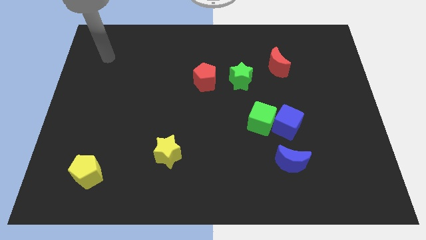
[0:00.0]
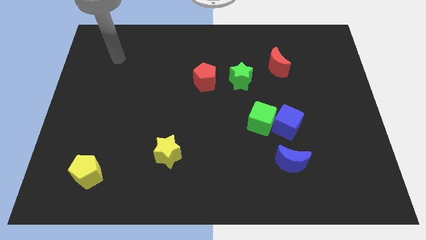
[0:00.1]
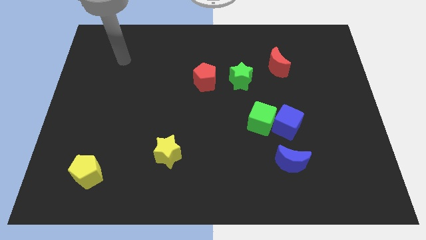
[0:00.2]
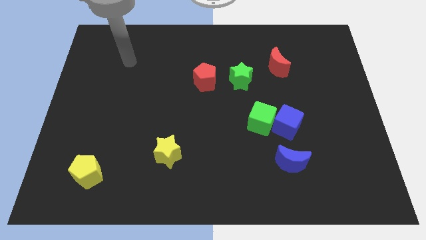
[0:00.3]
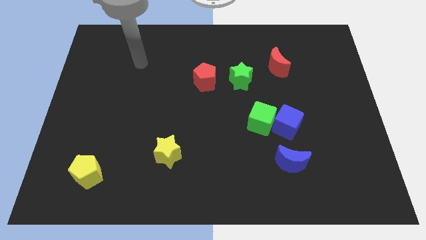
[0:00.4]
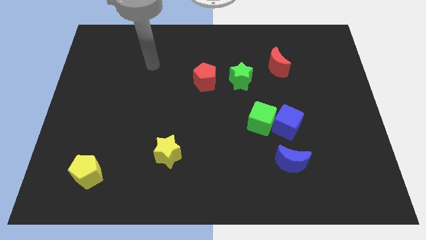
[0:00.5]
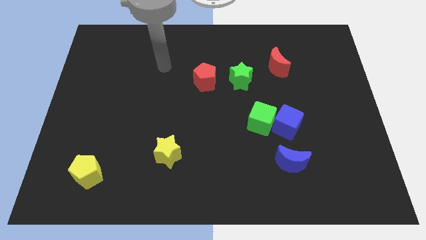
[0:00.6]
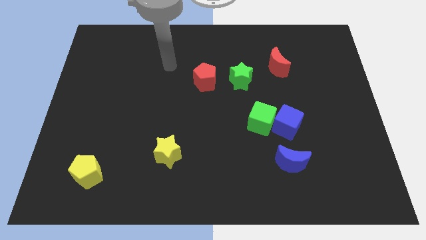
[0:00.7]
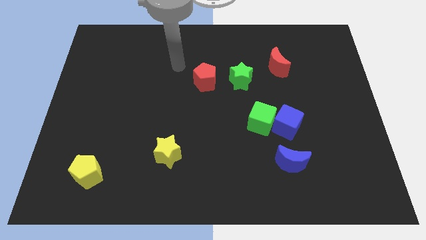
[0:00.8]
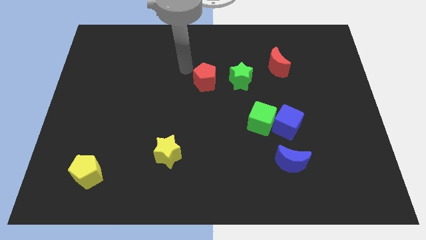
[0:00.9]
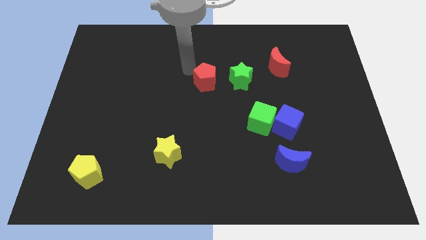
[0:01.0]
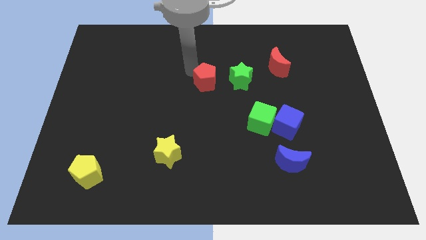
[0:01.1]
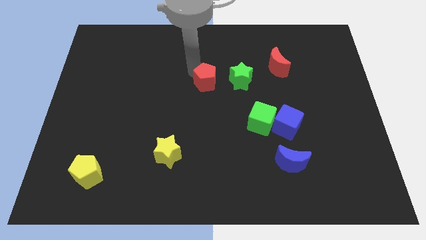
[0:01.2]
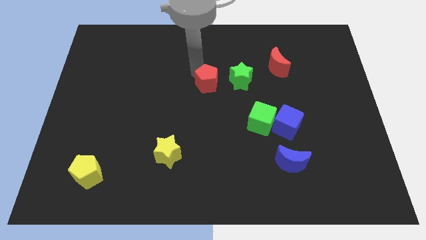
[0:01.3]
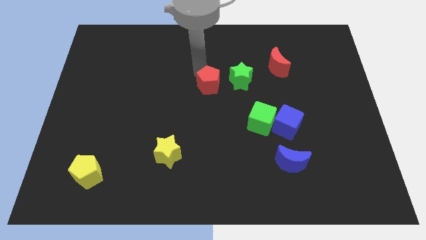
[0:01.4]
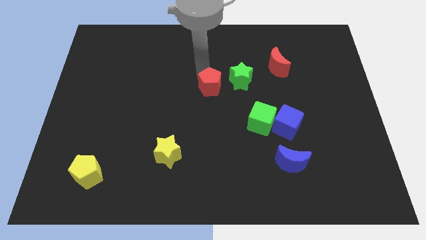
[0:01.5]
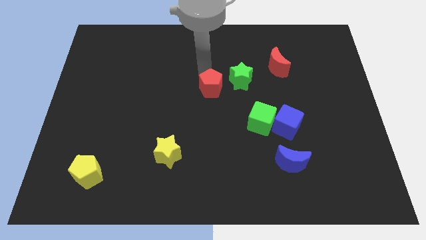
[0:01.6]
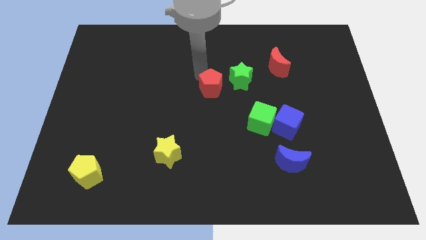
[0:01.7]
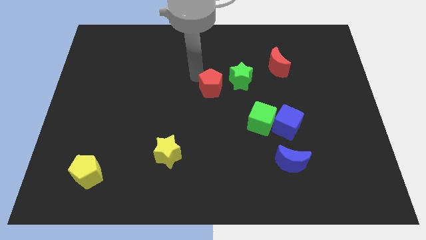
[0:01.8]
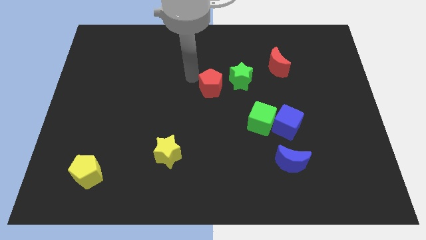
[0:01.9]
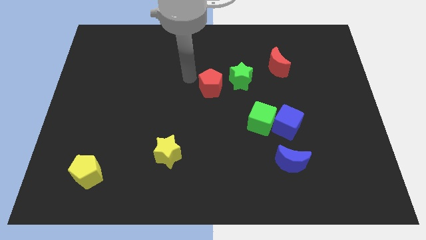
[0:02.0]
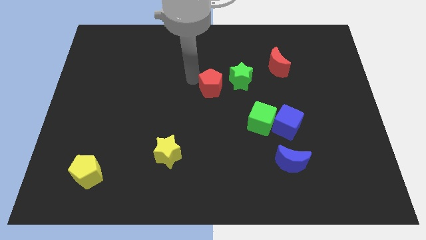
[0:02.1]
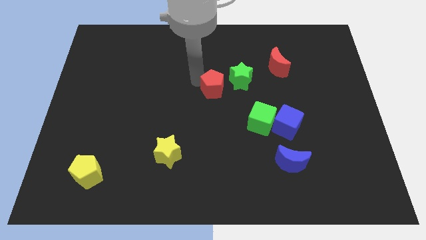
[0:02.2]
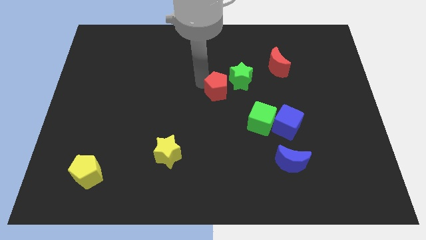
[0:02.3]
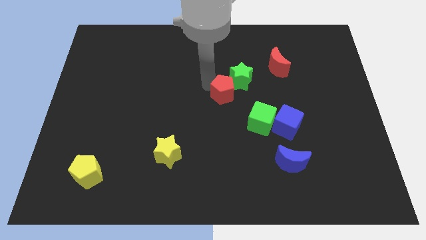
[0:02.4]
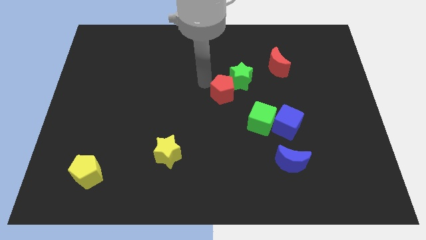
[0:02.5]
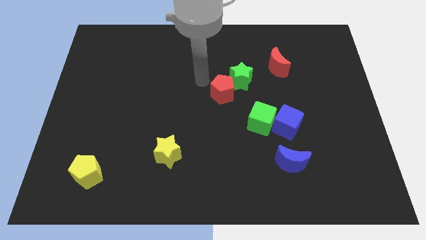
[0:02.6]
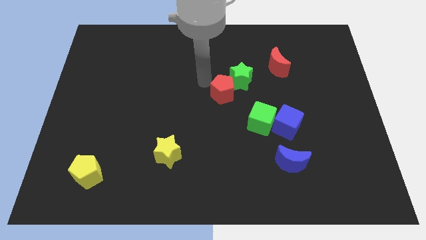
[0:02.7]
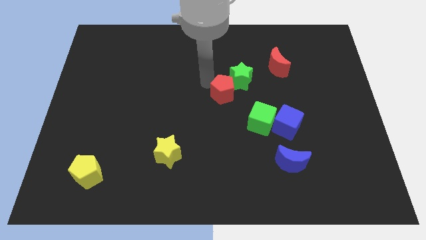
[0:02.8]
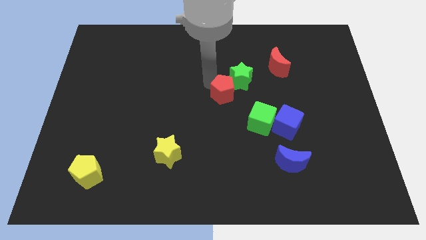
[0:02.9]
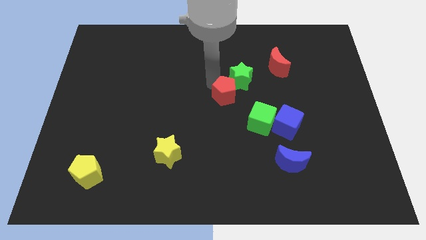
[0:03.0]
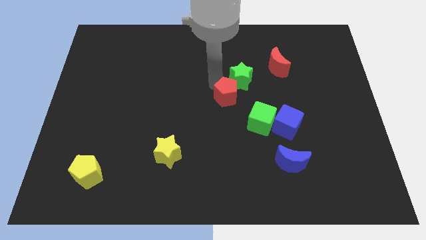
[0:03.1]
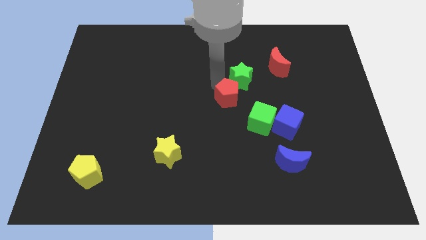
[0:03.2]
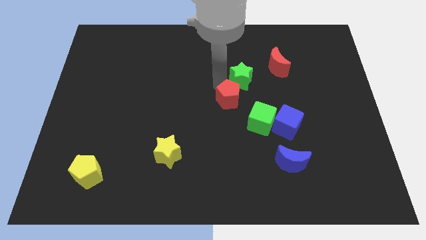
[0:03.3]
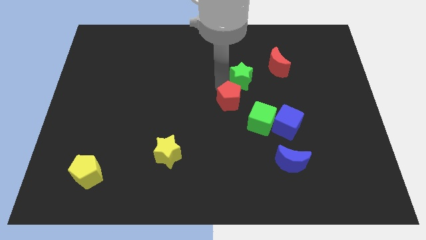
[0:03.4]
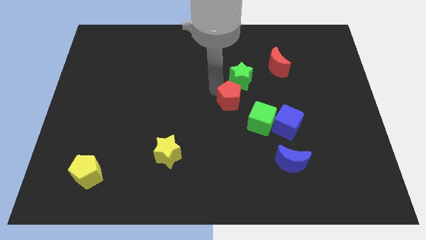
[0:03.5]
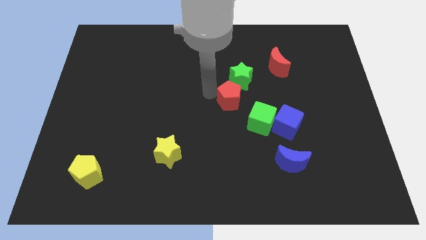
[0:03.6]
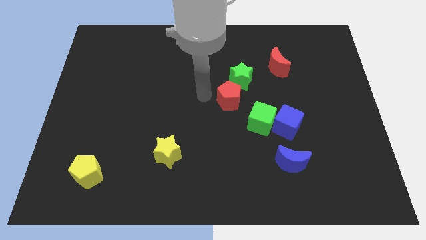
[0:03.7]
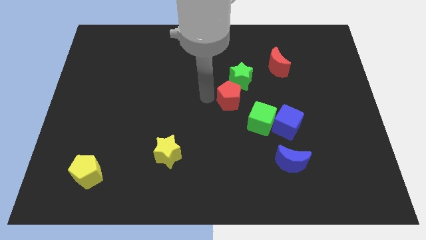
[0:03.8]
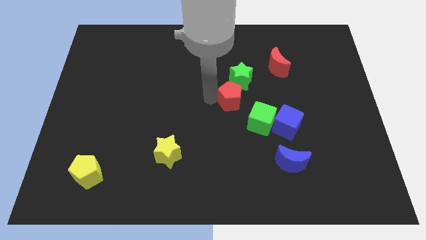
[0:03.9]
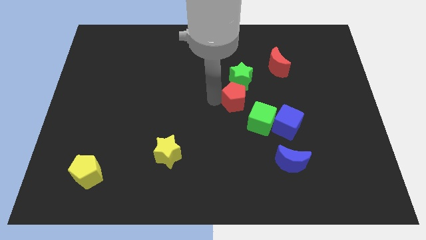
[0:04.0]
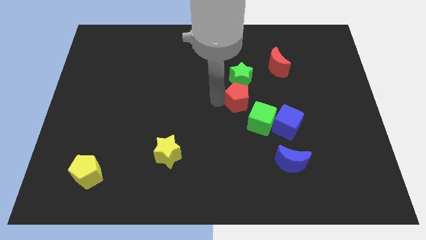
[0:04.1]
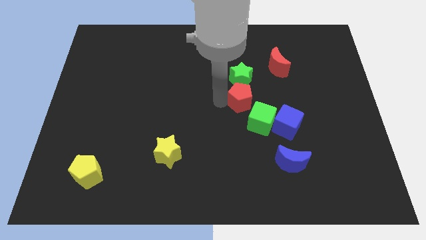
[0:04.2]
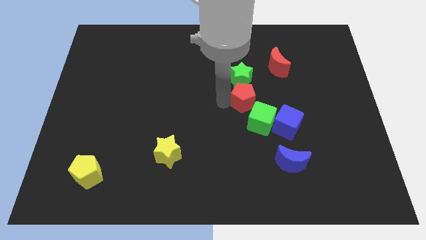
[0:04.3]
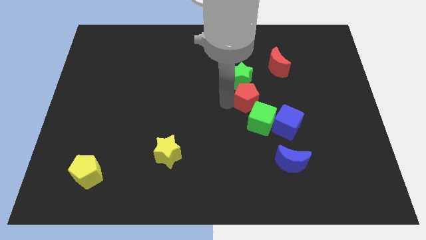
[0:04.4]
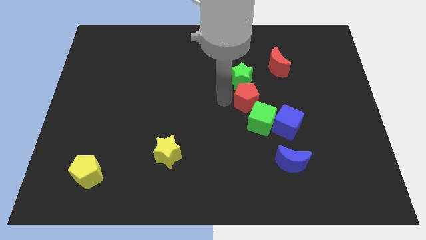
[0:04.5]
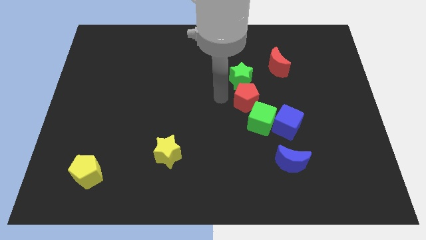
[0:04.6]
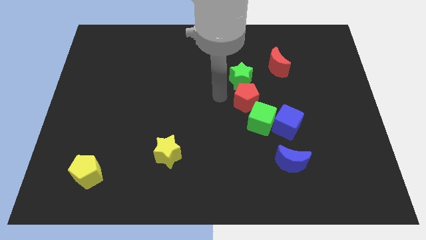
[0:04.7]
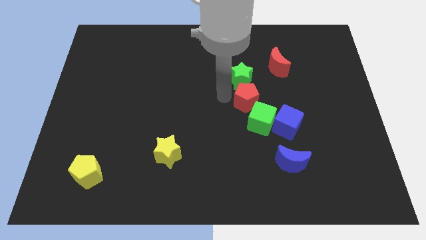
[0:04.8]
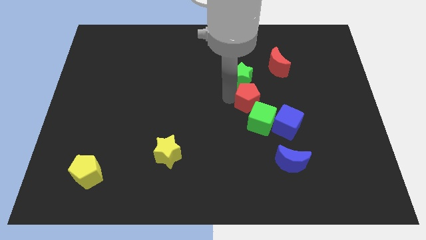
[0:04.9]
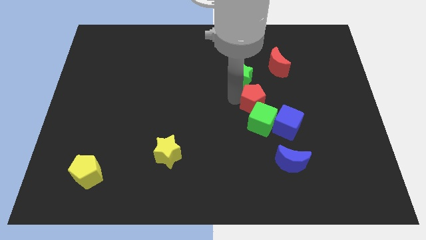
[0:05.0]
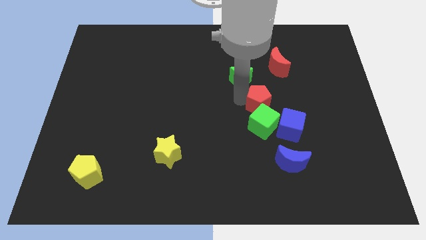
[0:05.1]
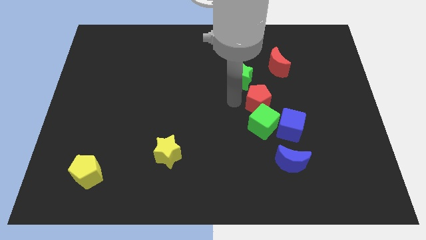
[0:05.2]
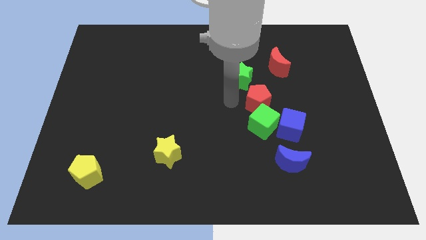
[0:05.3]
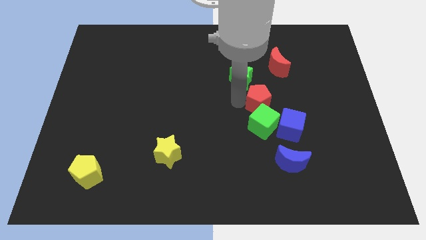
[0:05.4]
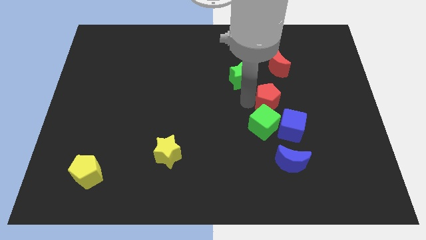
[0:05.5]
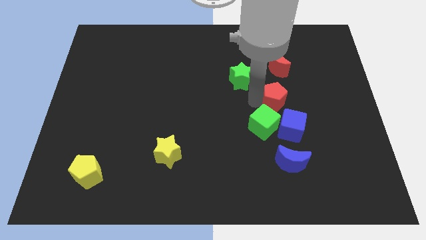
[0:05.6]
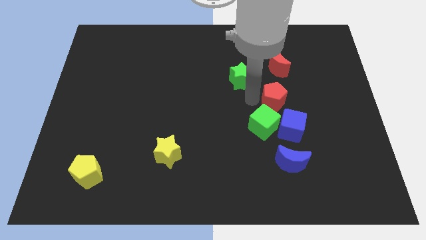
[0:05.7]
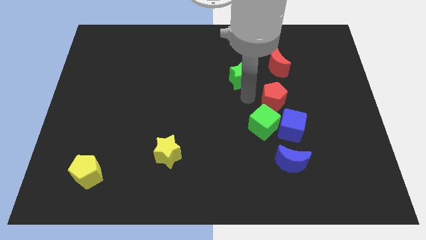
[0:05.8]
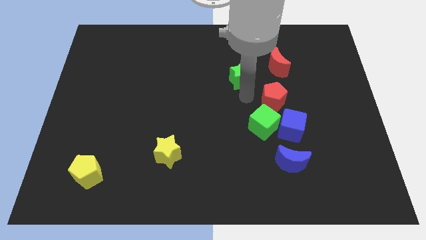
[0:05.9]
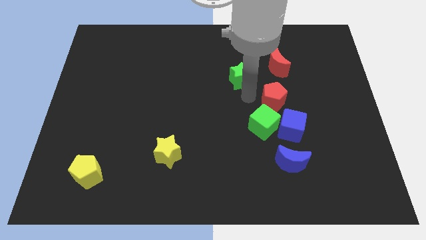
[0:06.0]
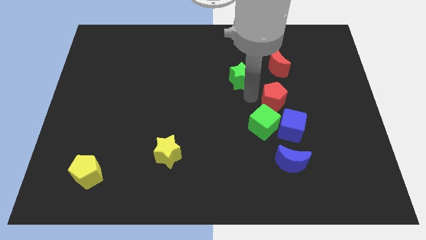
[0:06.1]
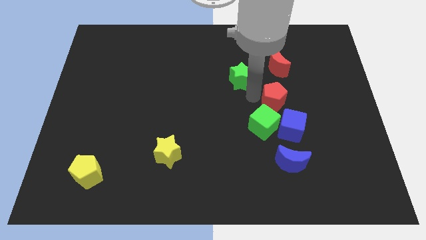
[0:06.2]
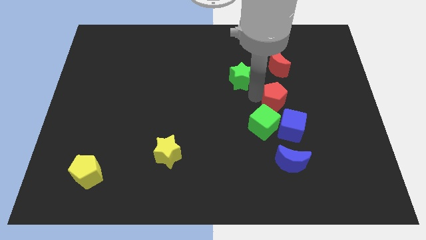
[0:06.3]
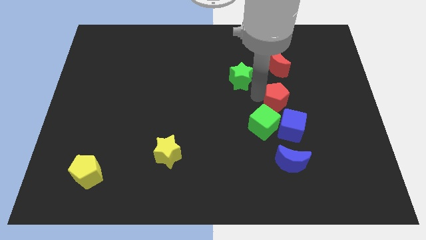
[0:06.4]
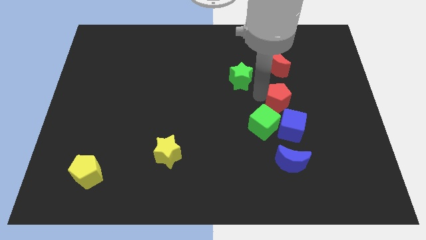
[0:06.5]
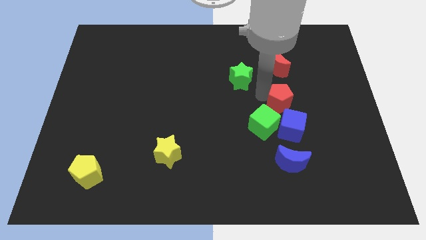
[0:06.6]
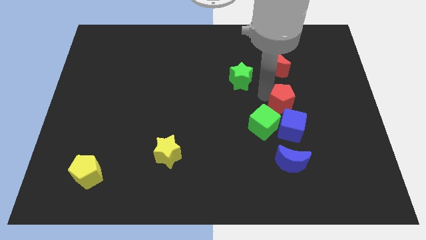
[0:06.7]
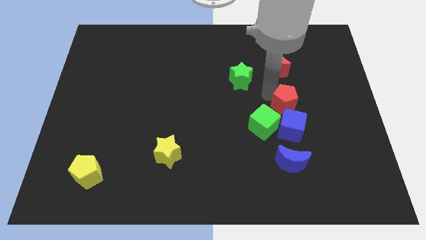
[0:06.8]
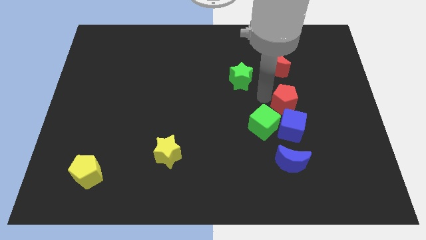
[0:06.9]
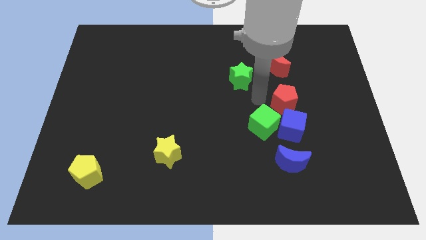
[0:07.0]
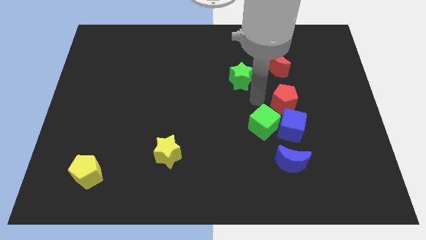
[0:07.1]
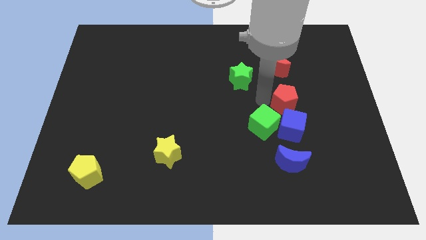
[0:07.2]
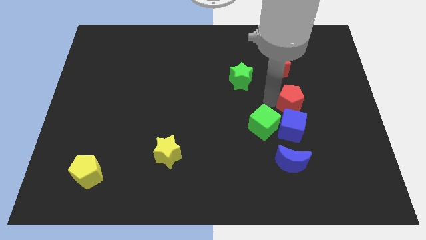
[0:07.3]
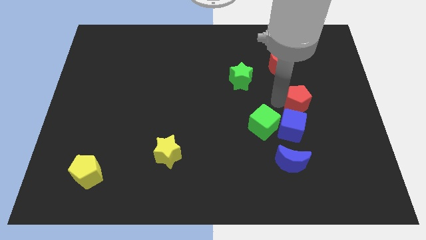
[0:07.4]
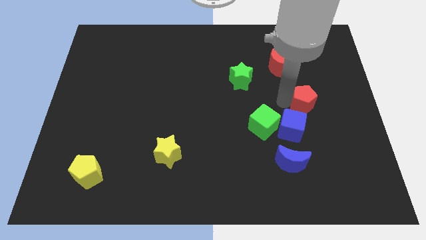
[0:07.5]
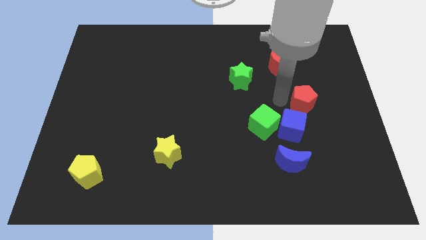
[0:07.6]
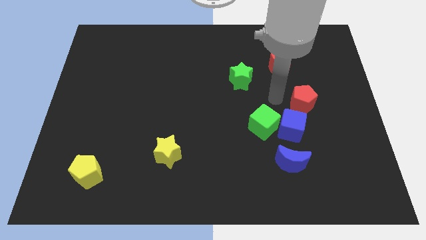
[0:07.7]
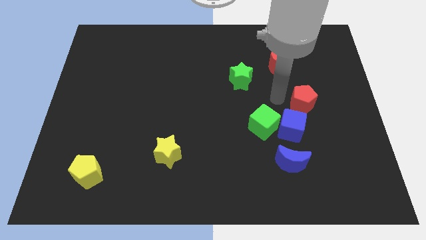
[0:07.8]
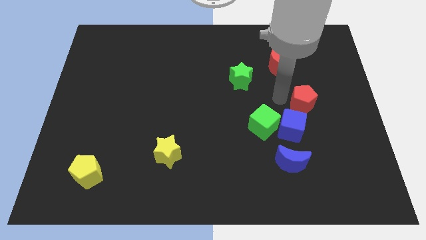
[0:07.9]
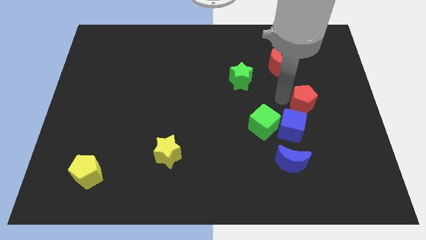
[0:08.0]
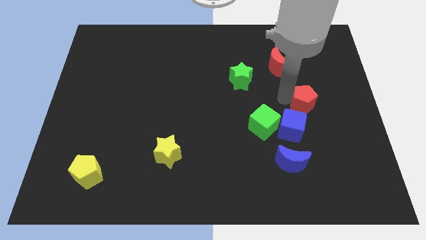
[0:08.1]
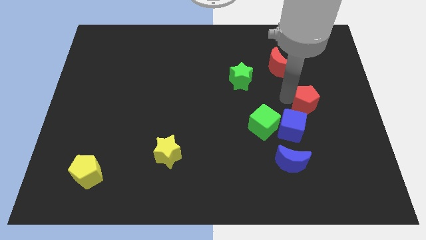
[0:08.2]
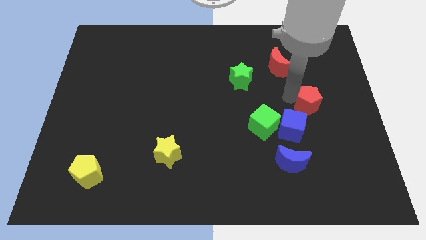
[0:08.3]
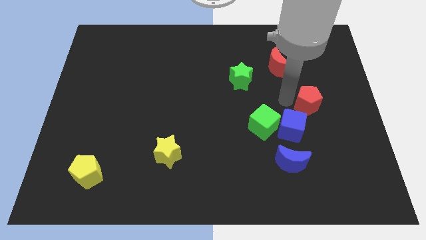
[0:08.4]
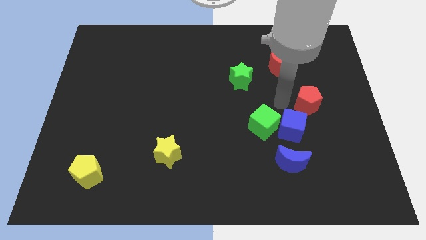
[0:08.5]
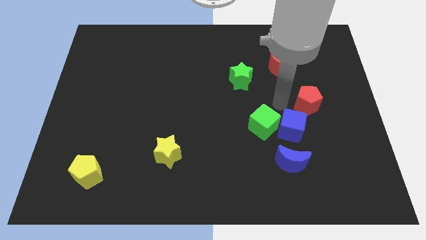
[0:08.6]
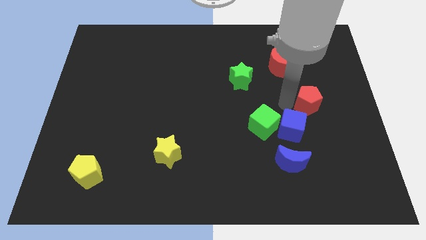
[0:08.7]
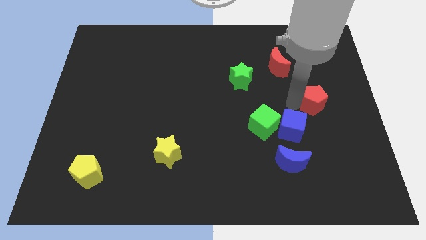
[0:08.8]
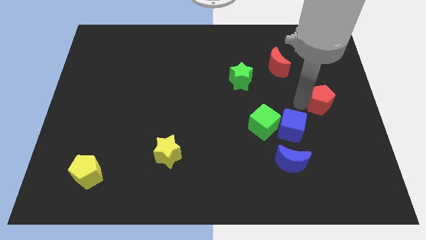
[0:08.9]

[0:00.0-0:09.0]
push the red pentagon to the center right
